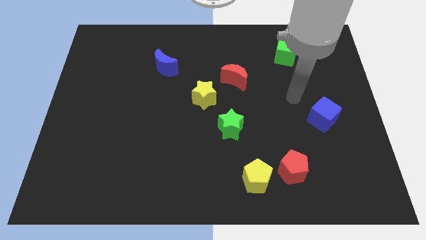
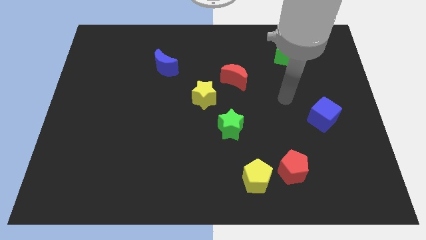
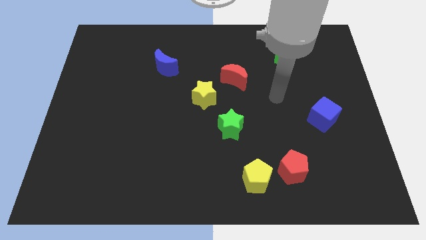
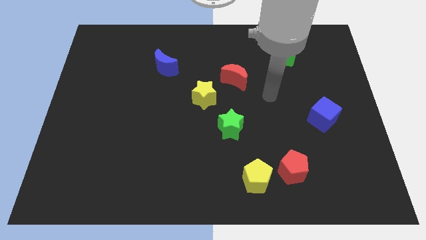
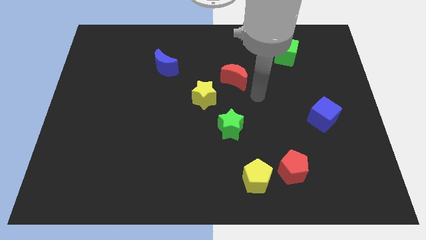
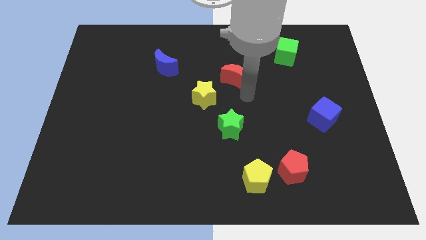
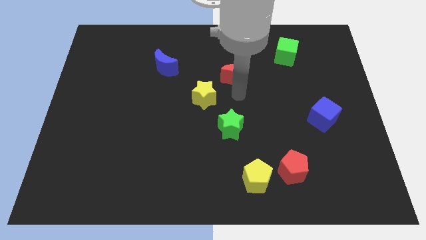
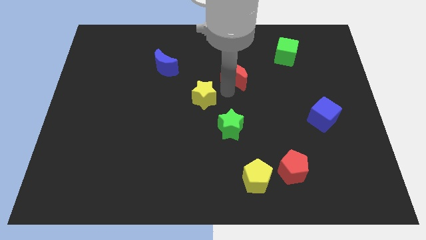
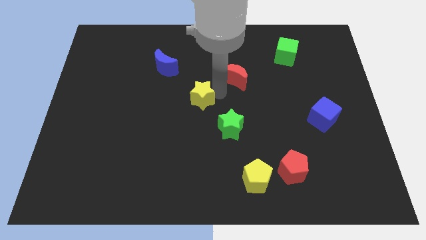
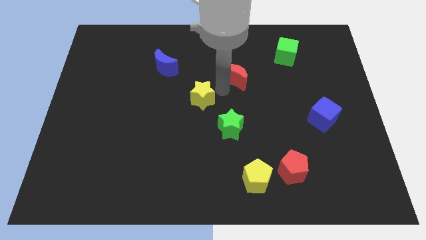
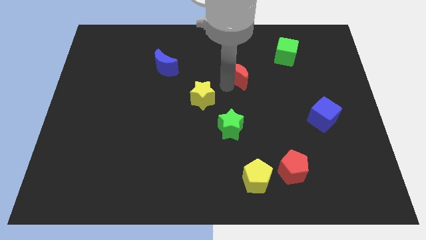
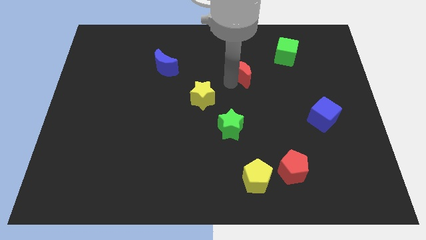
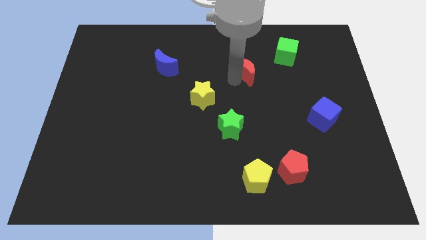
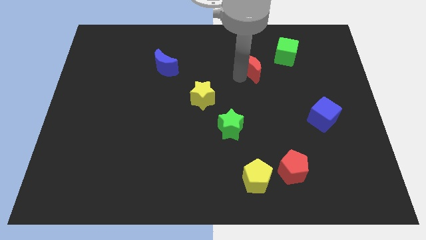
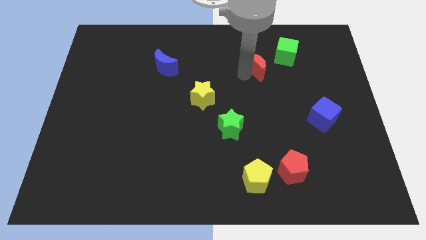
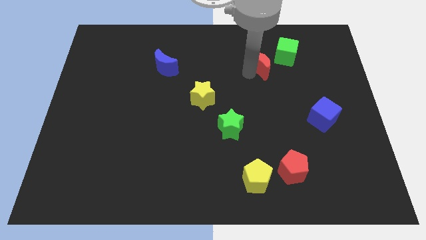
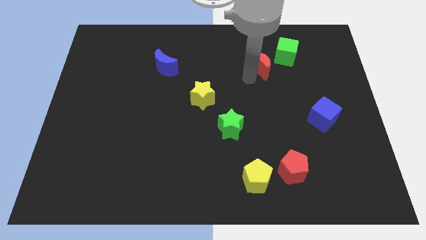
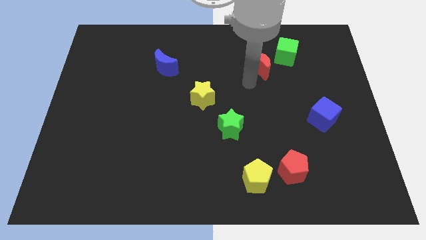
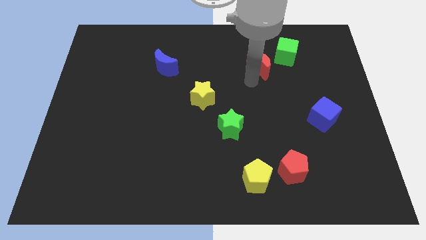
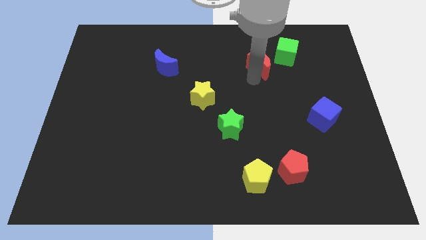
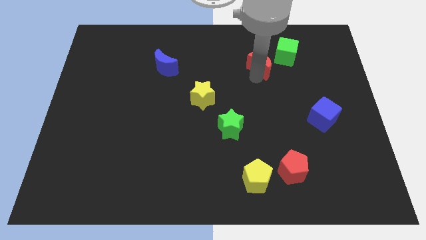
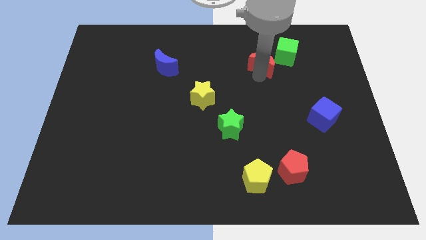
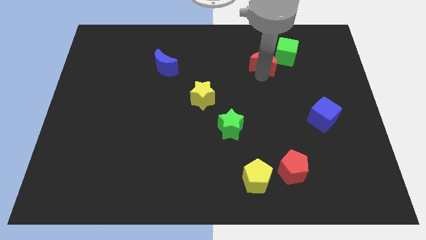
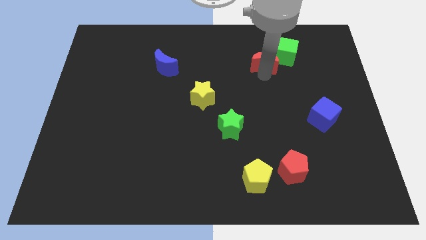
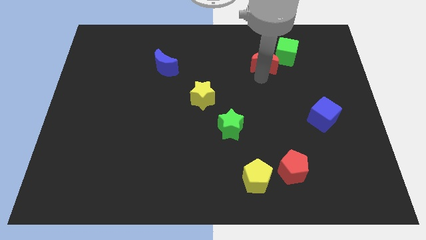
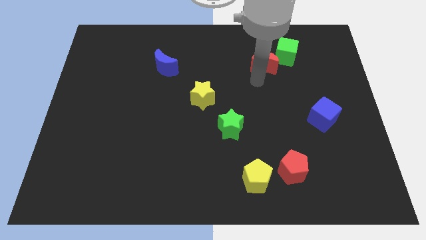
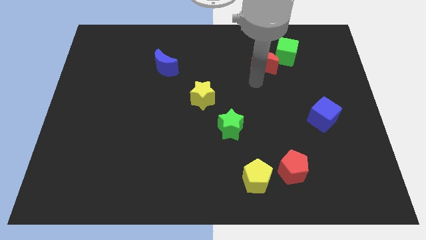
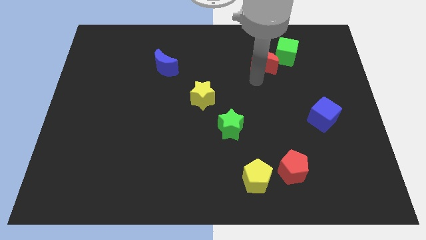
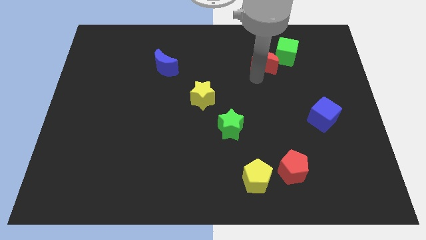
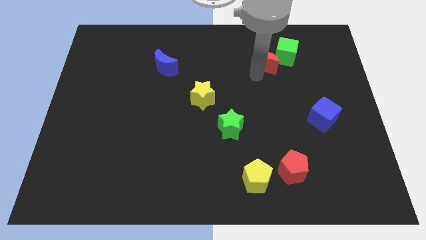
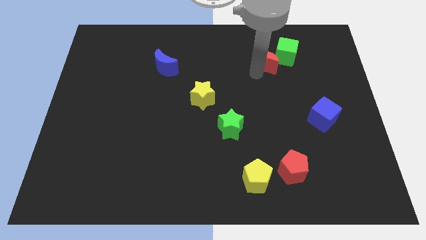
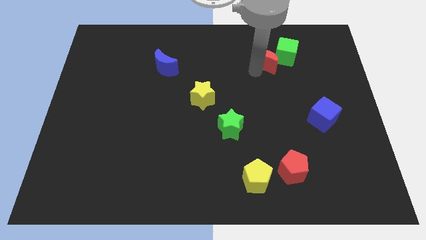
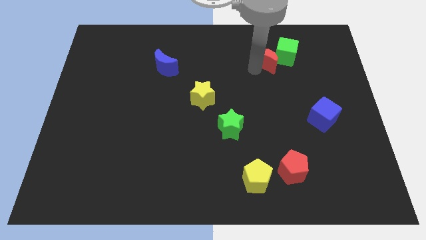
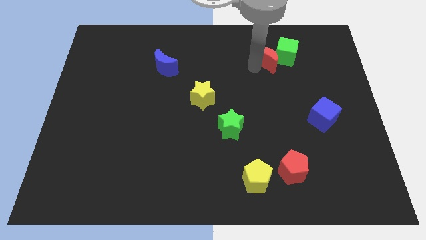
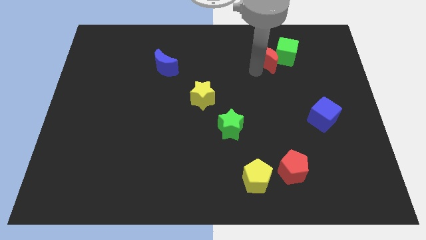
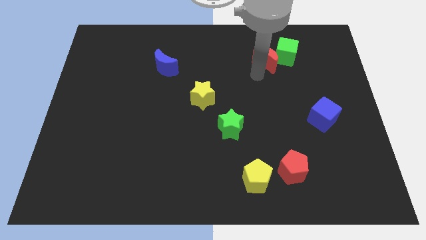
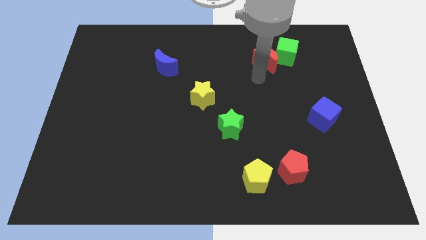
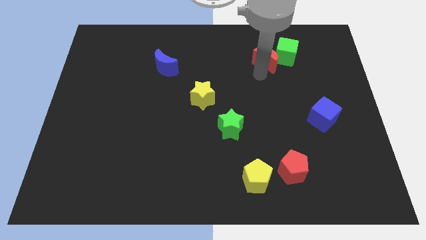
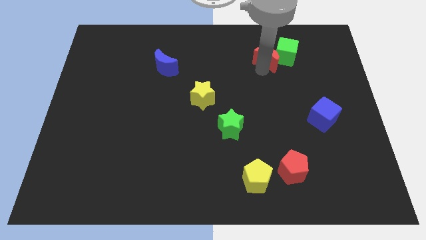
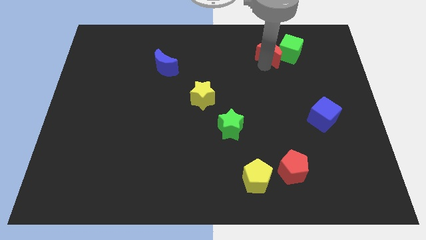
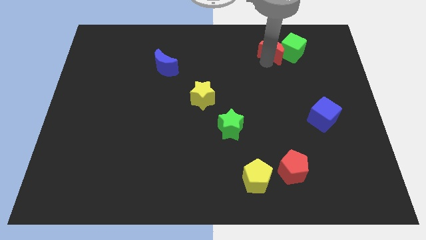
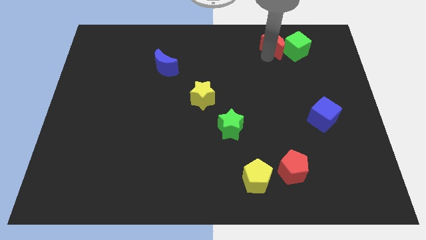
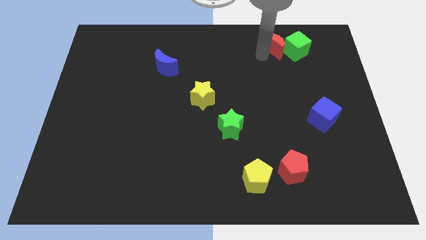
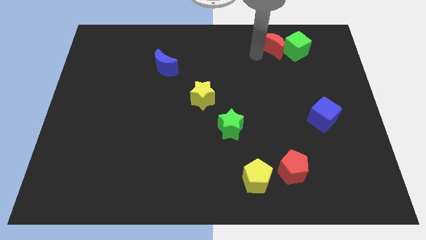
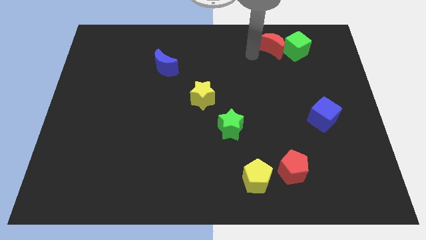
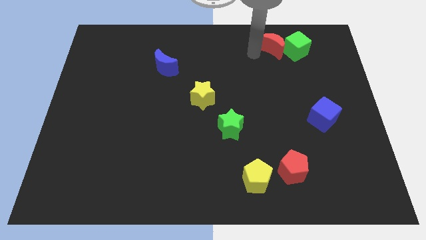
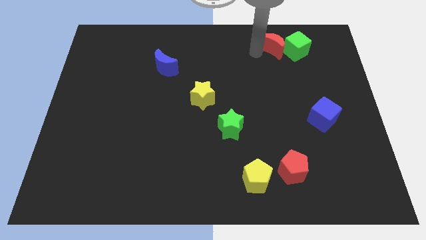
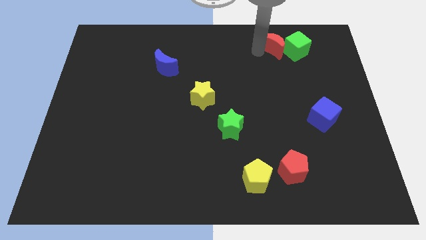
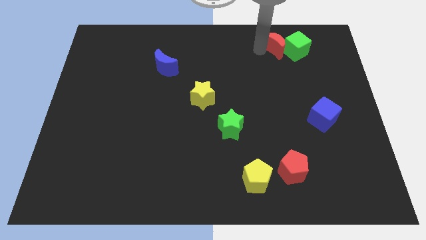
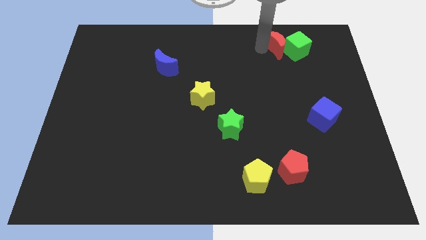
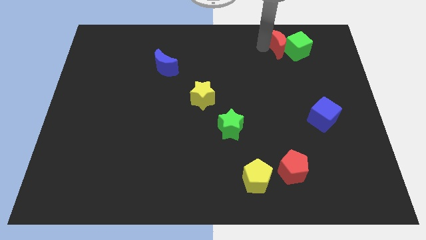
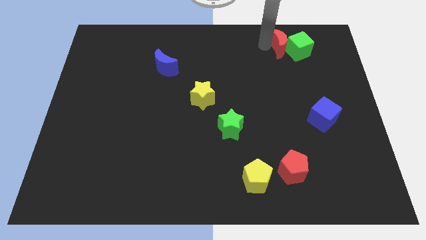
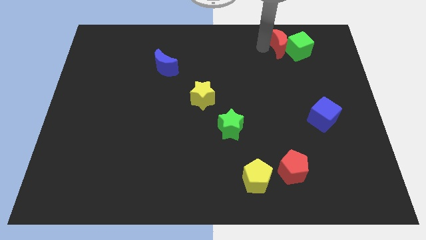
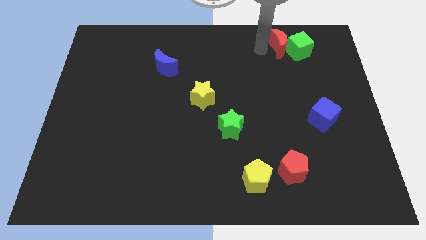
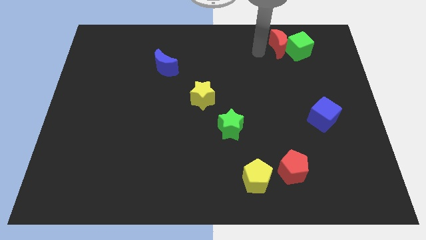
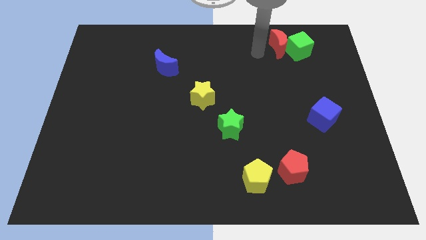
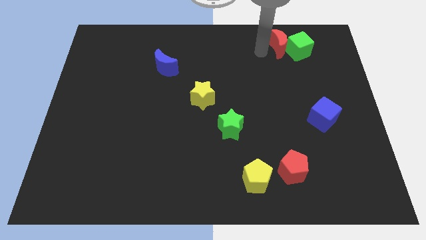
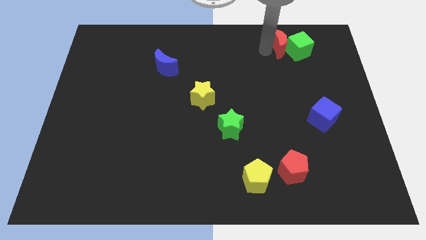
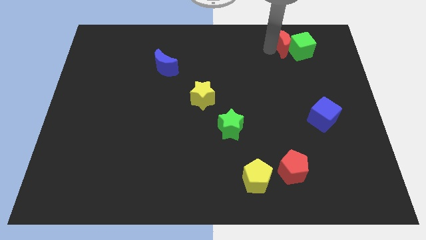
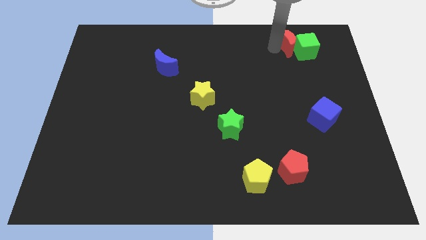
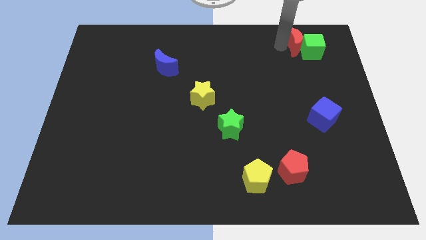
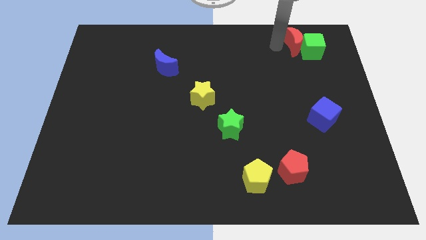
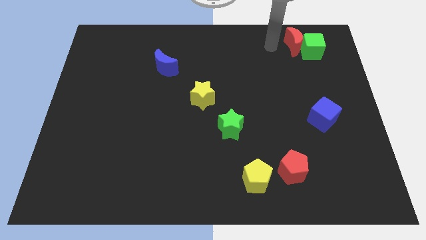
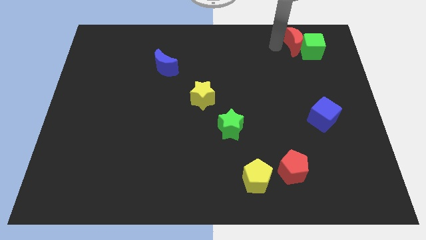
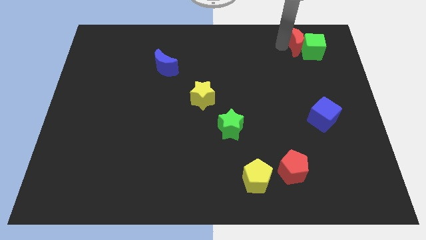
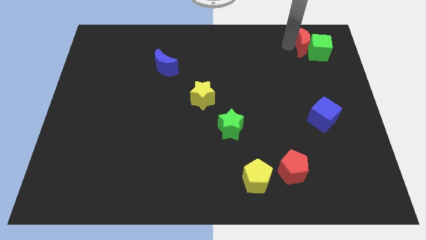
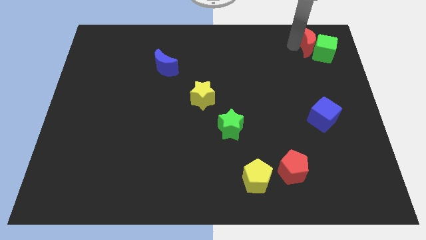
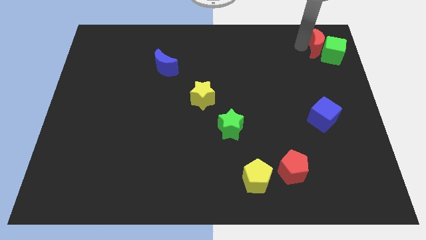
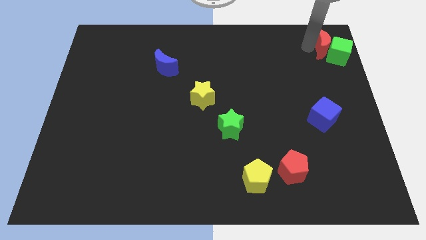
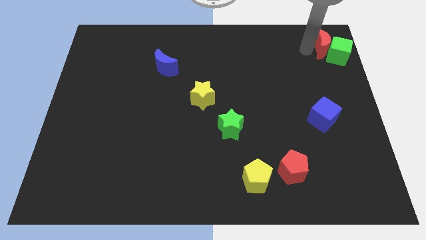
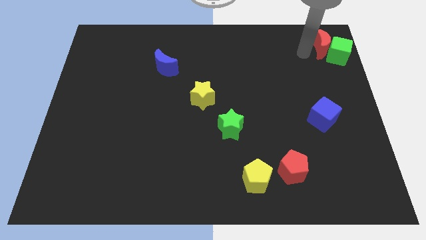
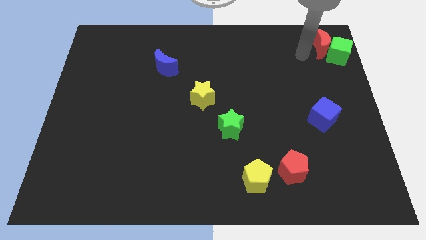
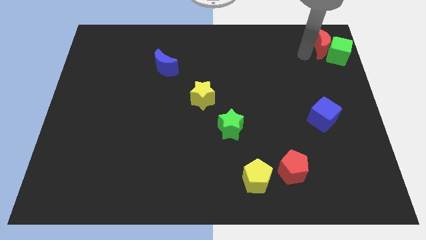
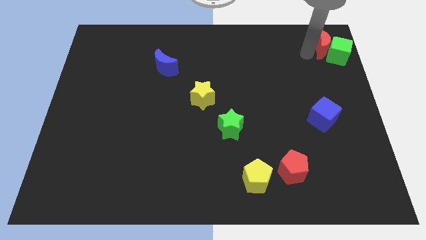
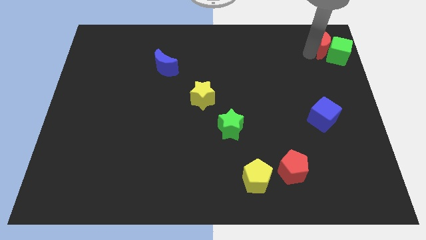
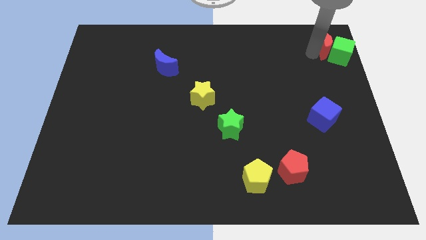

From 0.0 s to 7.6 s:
slide the red moon to the top right of the board
